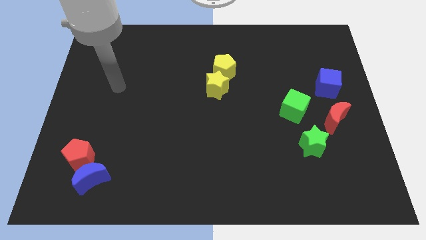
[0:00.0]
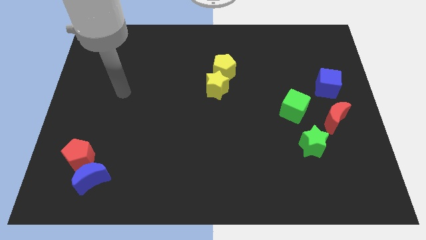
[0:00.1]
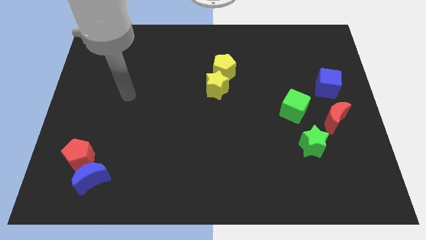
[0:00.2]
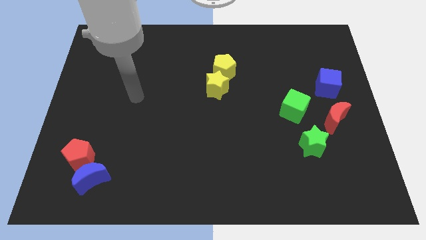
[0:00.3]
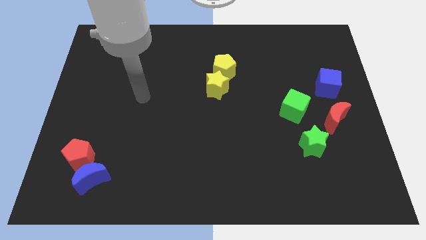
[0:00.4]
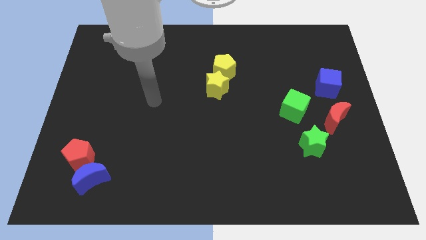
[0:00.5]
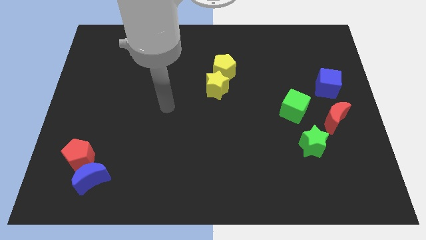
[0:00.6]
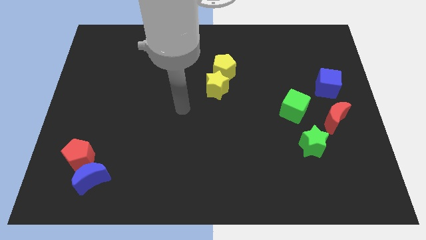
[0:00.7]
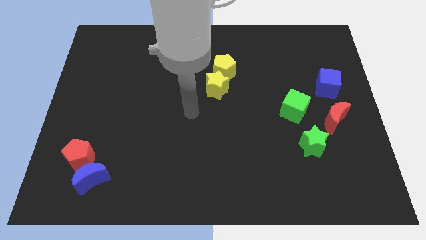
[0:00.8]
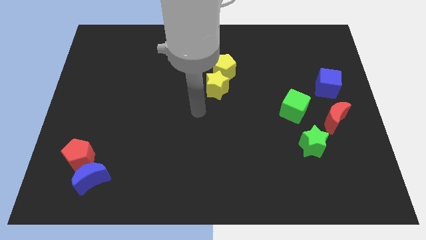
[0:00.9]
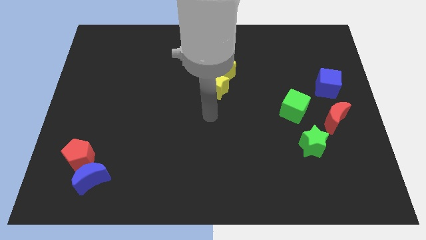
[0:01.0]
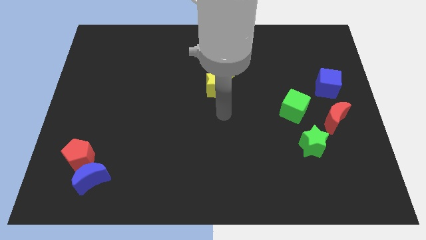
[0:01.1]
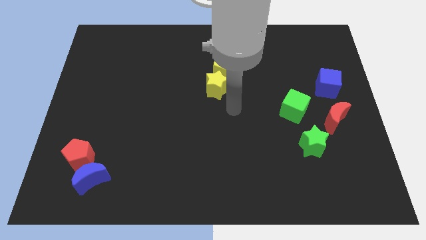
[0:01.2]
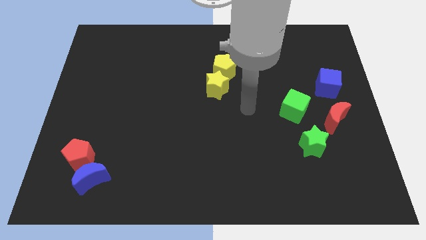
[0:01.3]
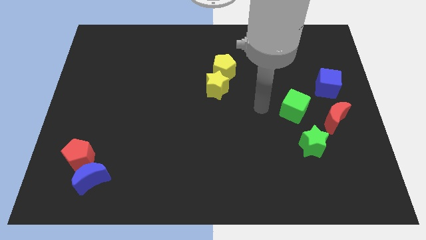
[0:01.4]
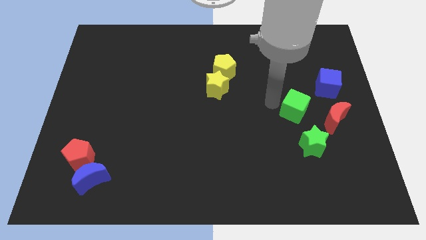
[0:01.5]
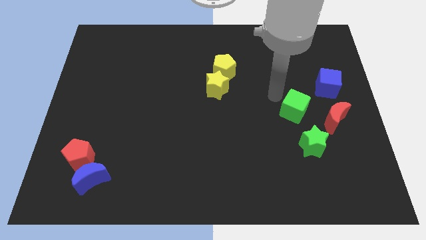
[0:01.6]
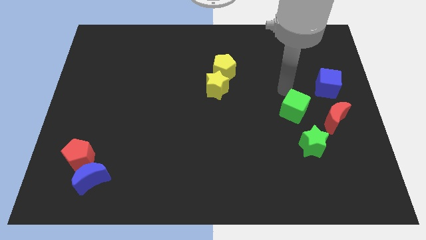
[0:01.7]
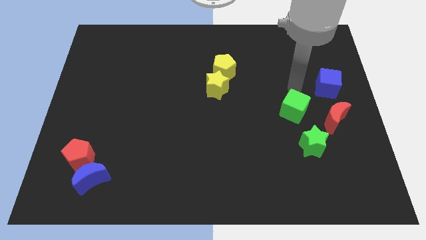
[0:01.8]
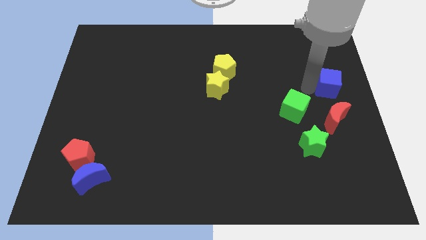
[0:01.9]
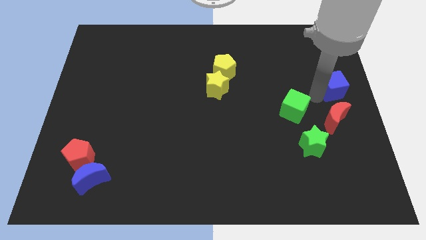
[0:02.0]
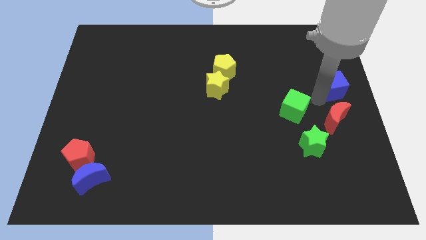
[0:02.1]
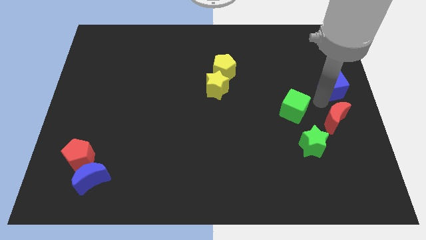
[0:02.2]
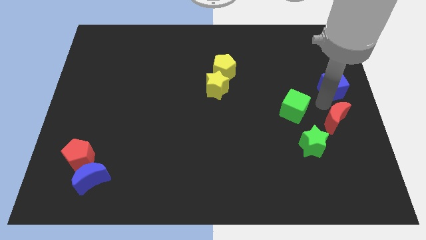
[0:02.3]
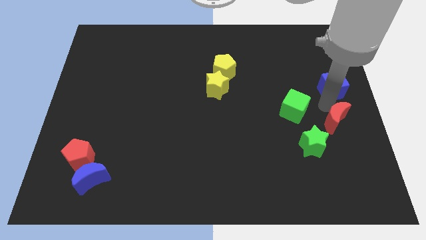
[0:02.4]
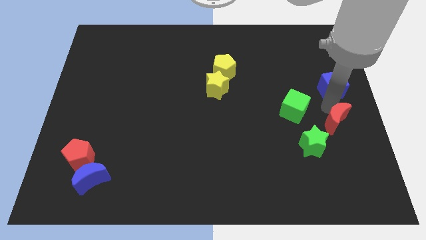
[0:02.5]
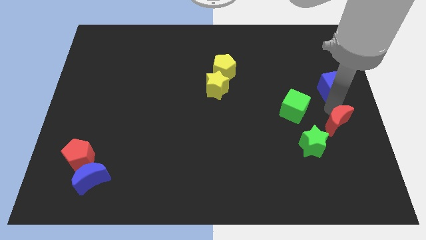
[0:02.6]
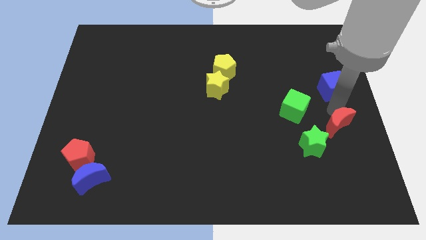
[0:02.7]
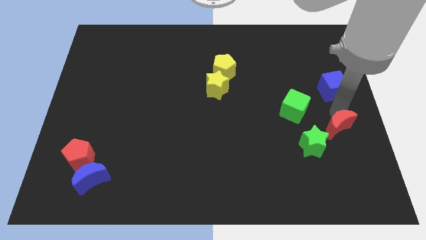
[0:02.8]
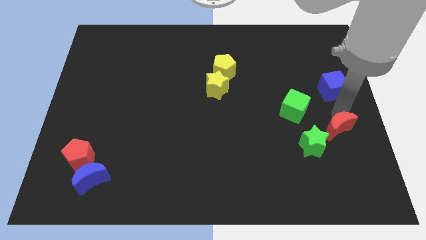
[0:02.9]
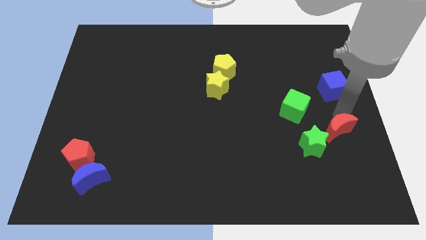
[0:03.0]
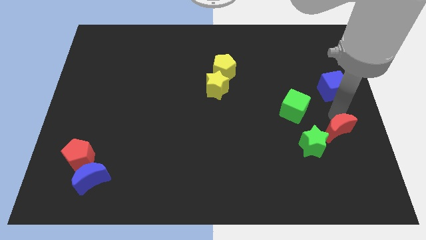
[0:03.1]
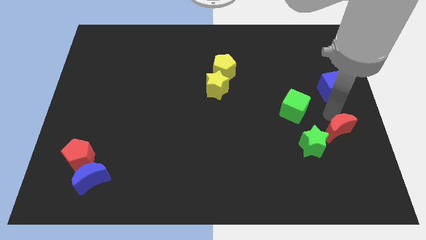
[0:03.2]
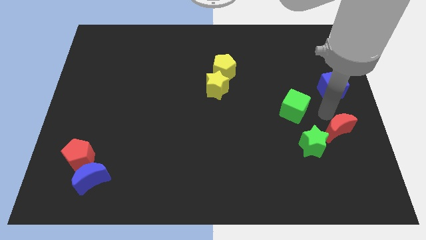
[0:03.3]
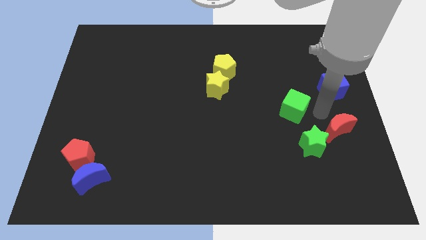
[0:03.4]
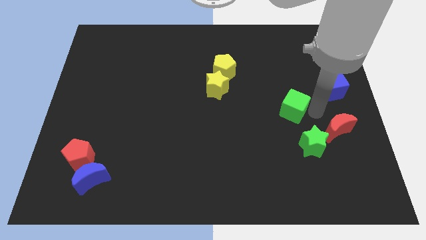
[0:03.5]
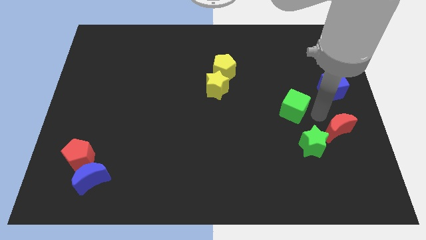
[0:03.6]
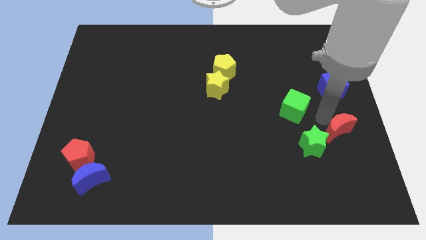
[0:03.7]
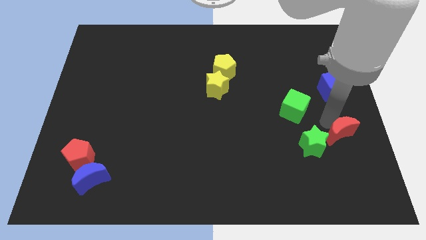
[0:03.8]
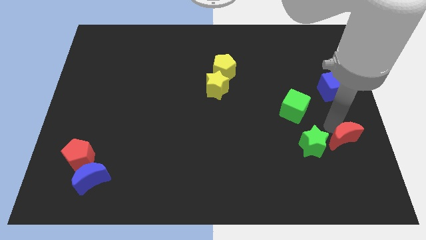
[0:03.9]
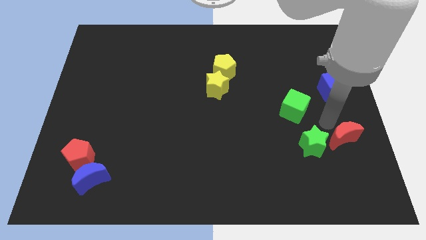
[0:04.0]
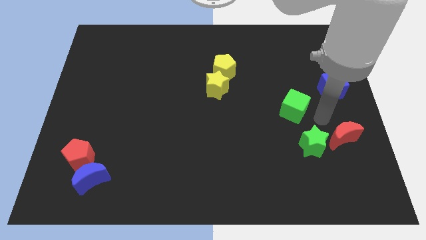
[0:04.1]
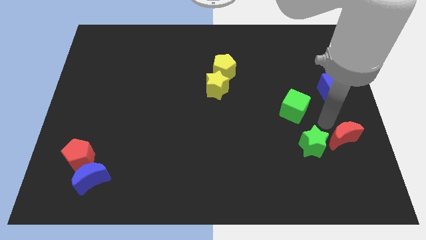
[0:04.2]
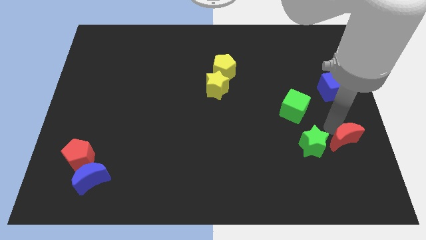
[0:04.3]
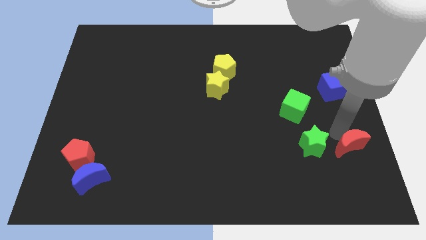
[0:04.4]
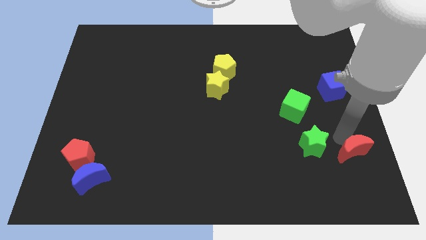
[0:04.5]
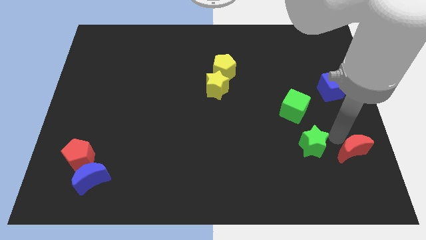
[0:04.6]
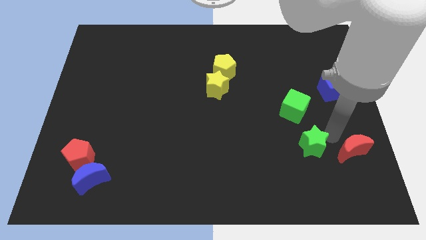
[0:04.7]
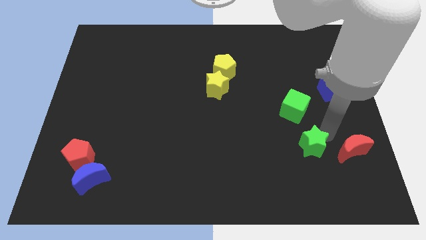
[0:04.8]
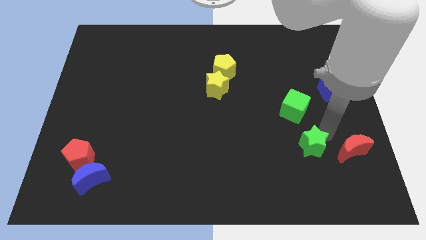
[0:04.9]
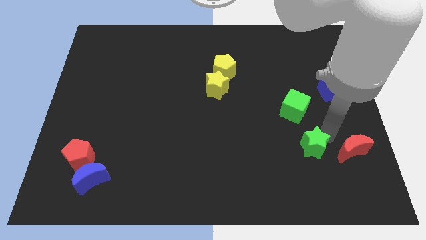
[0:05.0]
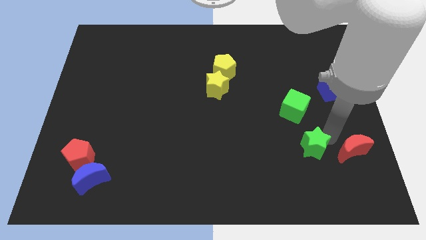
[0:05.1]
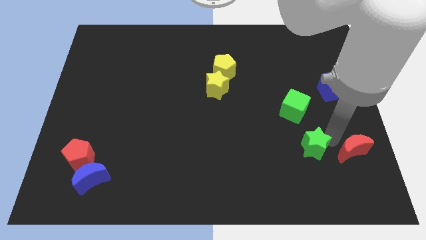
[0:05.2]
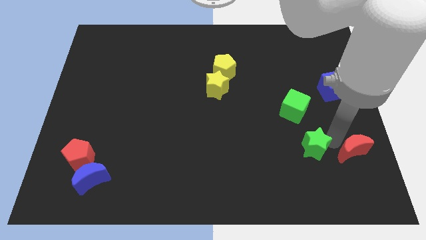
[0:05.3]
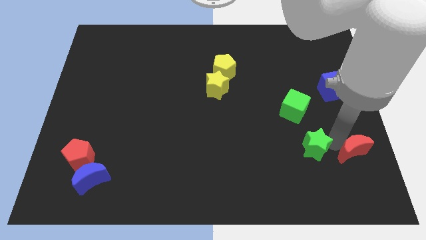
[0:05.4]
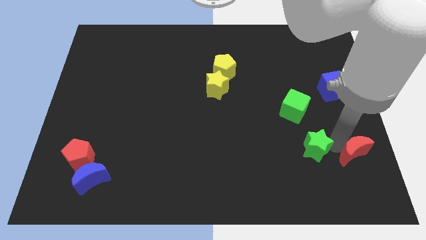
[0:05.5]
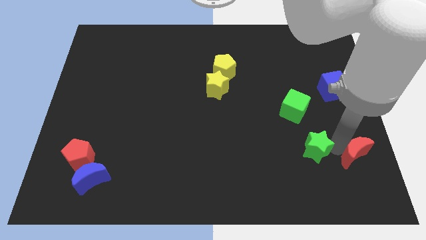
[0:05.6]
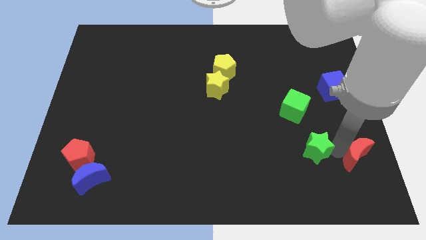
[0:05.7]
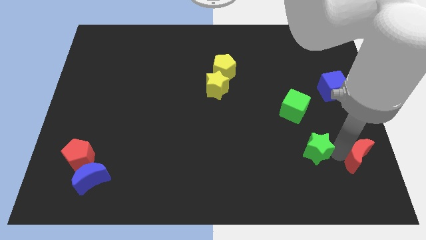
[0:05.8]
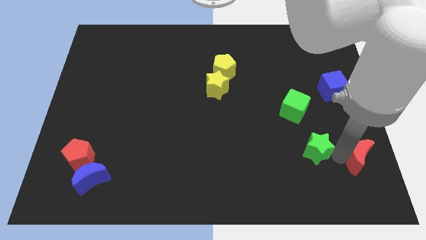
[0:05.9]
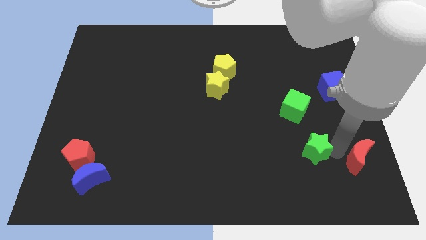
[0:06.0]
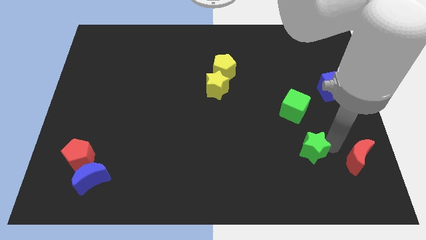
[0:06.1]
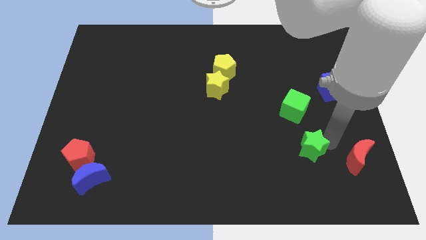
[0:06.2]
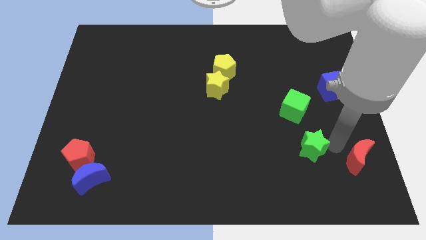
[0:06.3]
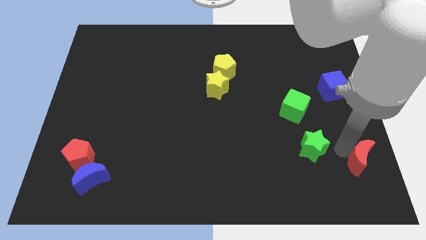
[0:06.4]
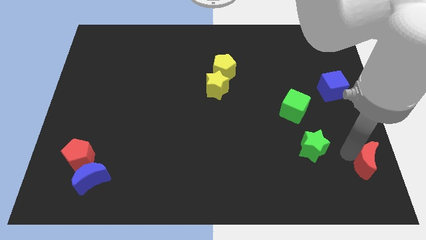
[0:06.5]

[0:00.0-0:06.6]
push the red moon to the bottom right corner

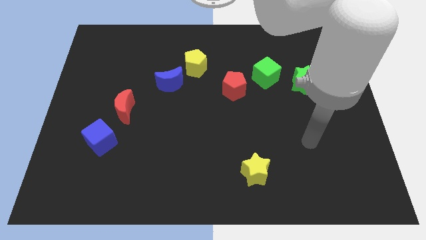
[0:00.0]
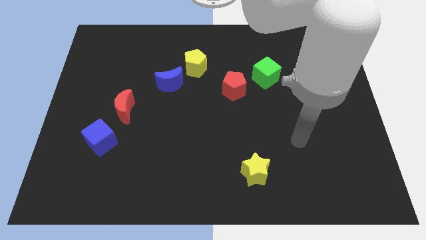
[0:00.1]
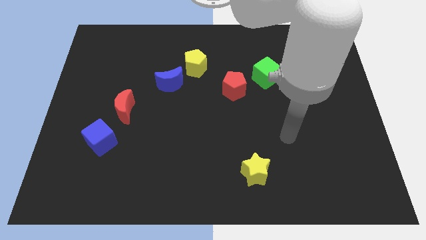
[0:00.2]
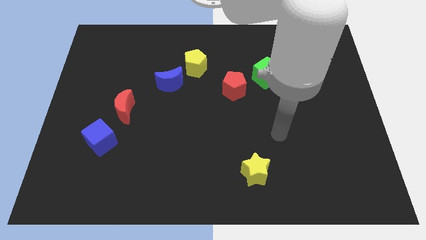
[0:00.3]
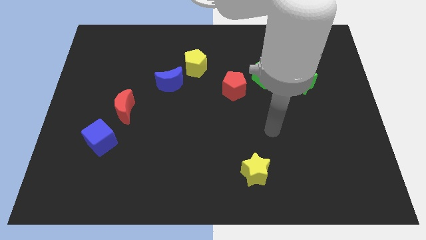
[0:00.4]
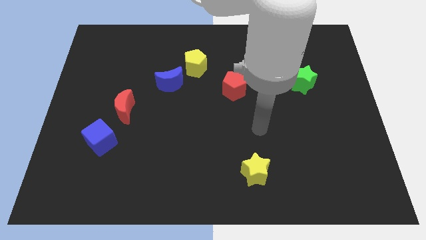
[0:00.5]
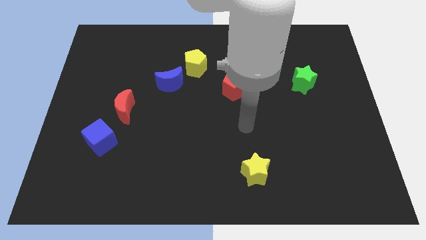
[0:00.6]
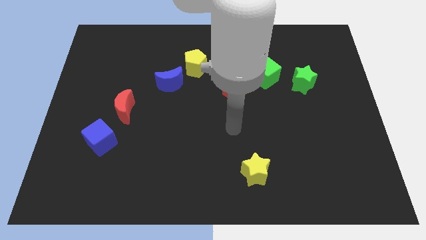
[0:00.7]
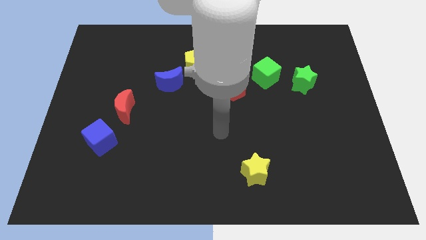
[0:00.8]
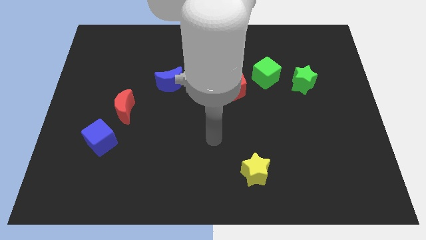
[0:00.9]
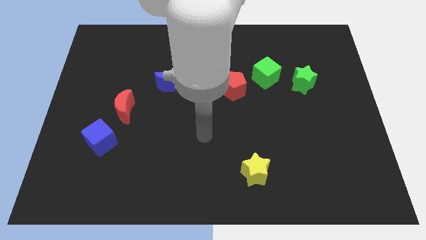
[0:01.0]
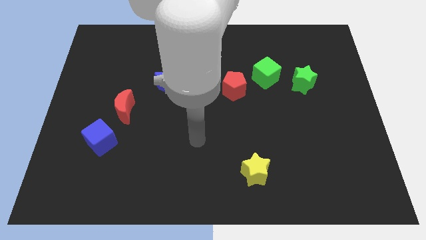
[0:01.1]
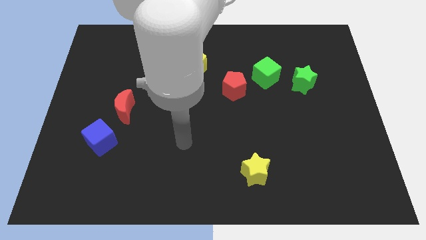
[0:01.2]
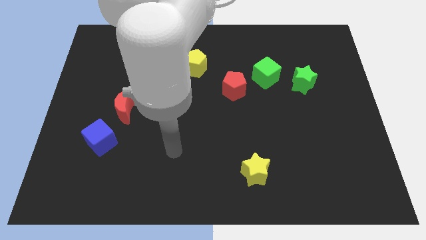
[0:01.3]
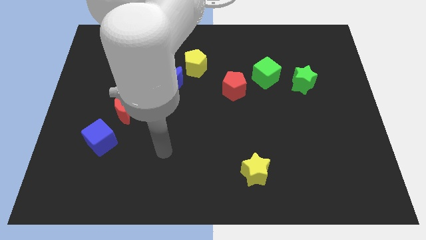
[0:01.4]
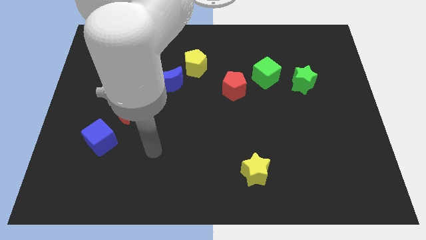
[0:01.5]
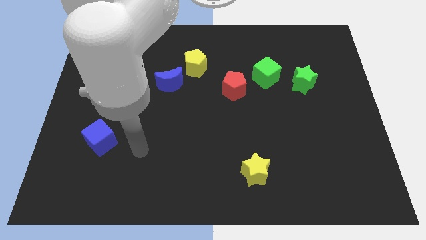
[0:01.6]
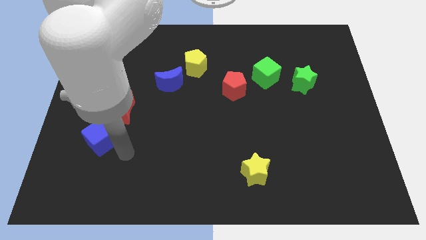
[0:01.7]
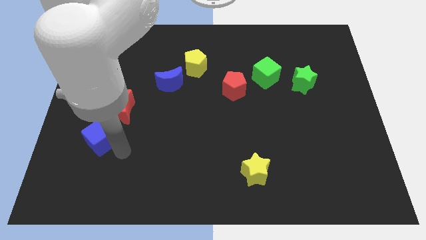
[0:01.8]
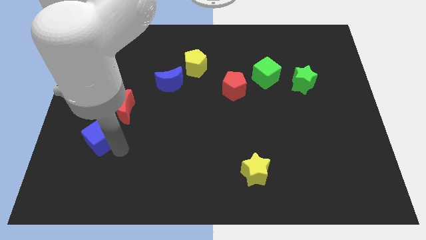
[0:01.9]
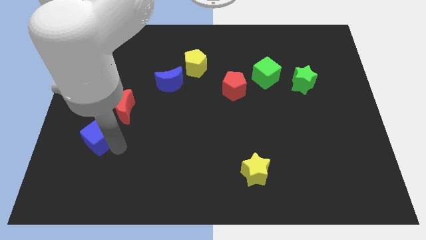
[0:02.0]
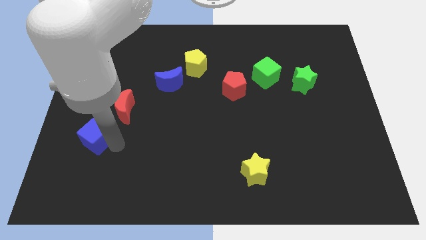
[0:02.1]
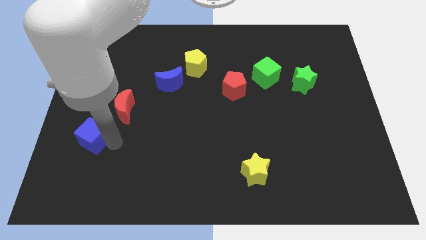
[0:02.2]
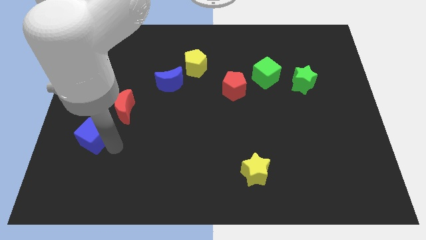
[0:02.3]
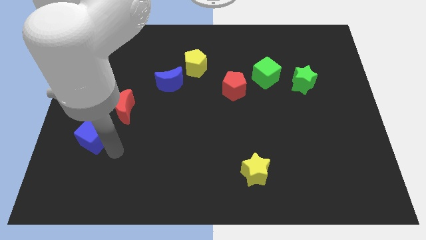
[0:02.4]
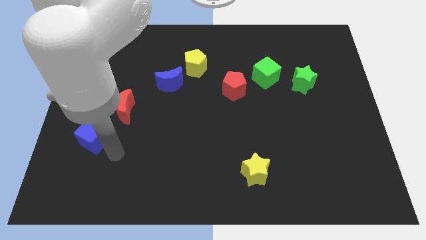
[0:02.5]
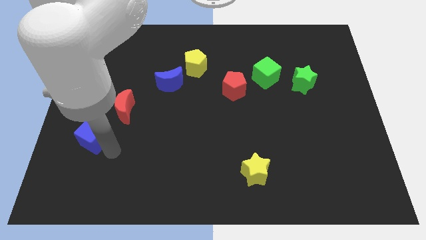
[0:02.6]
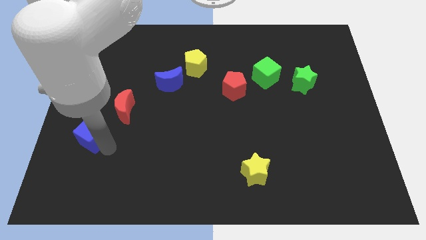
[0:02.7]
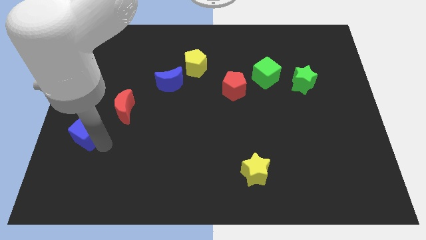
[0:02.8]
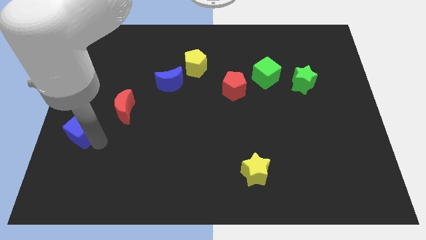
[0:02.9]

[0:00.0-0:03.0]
slide the blue cube to the left side of the board
